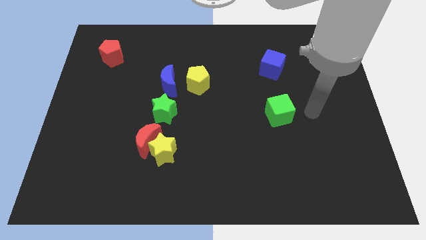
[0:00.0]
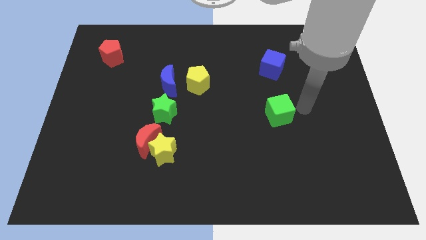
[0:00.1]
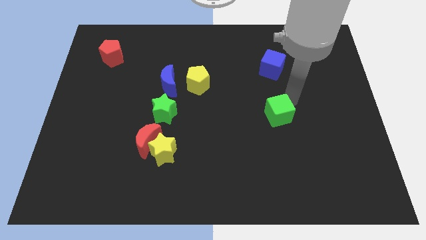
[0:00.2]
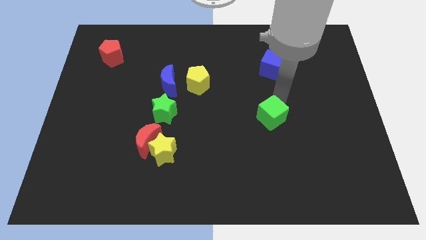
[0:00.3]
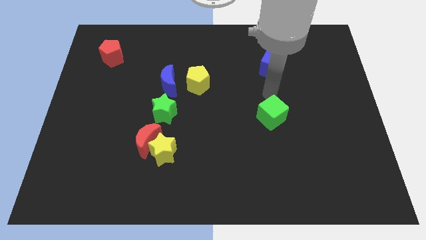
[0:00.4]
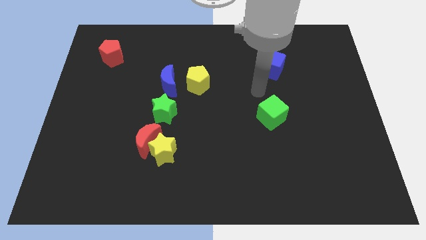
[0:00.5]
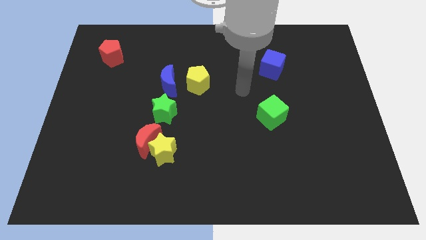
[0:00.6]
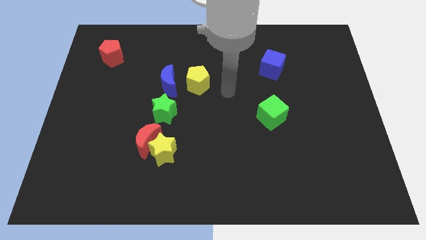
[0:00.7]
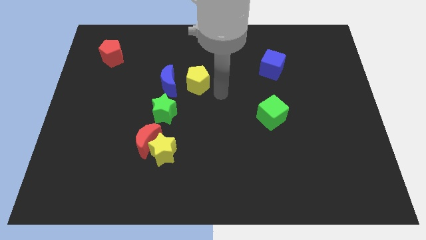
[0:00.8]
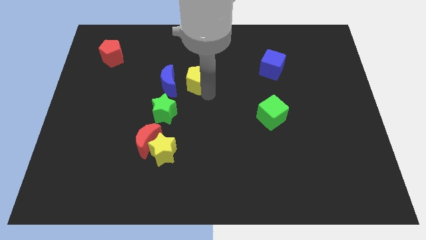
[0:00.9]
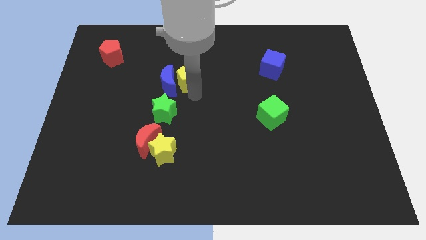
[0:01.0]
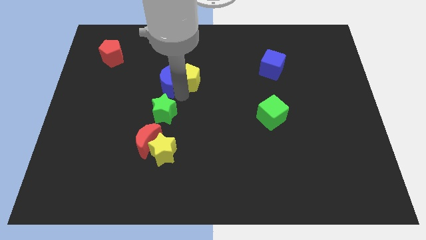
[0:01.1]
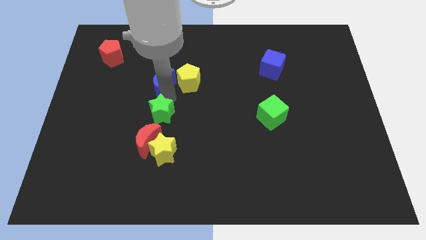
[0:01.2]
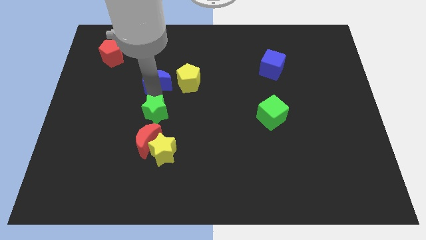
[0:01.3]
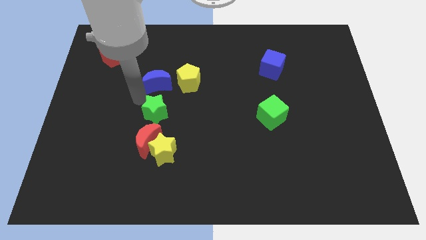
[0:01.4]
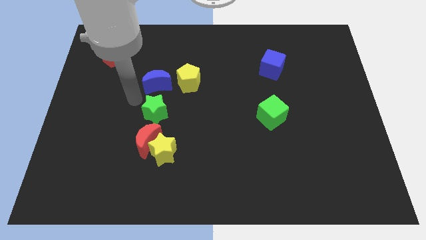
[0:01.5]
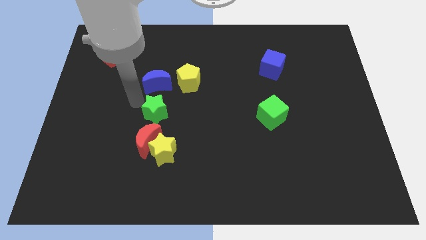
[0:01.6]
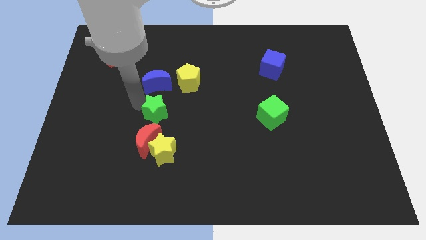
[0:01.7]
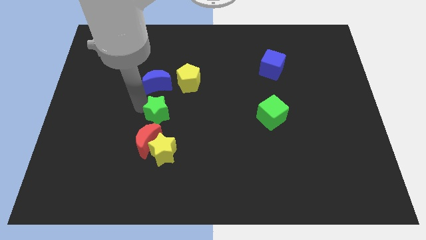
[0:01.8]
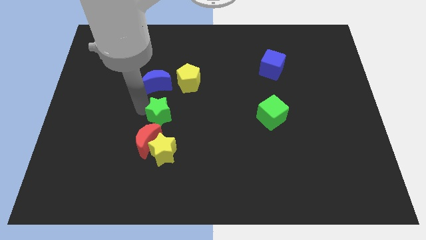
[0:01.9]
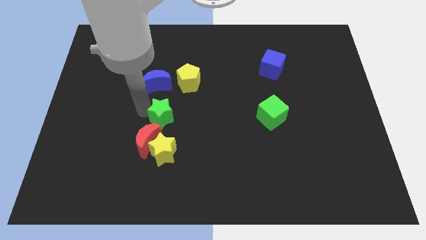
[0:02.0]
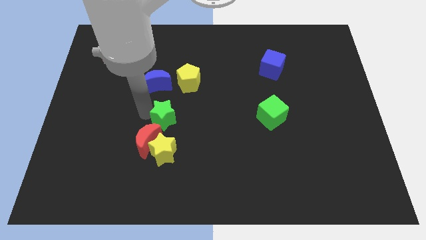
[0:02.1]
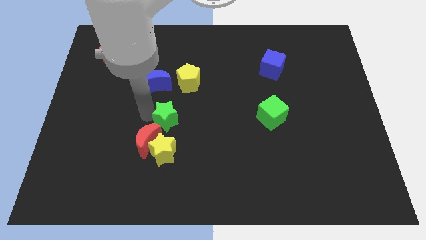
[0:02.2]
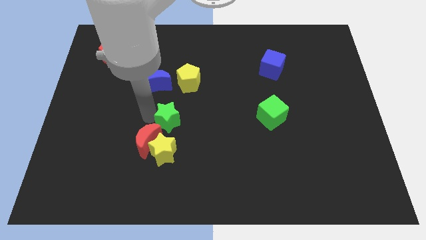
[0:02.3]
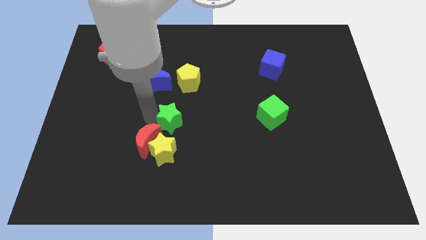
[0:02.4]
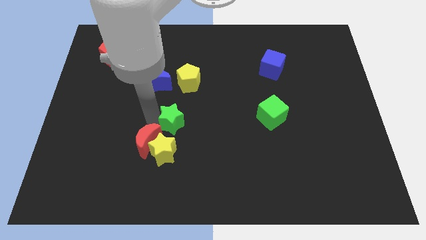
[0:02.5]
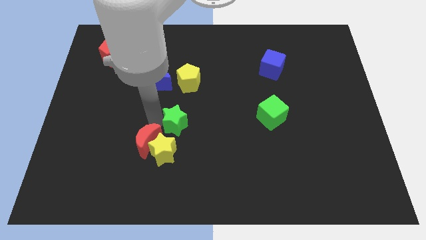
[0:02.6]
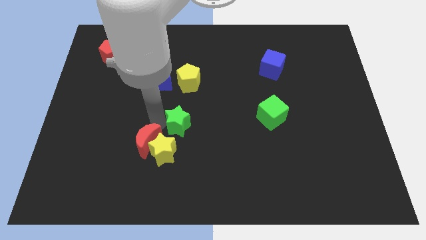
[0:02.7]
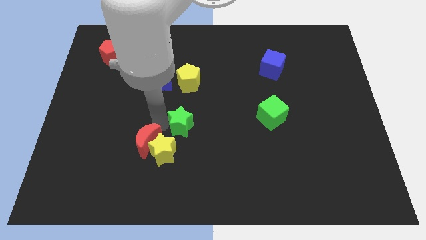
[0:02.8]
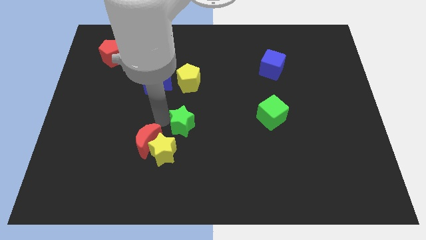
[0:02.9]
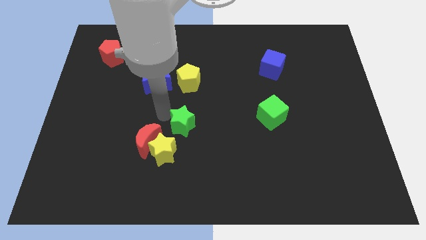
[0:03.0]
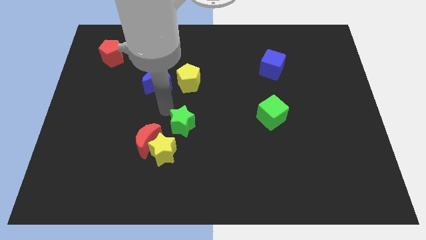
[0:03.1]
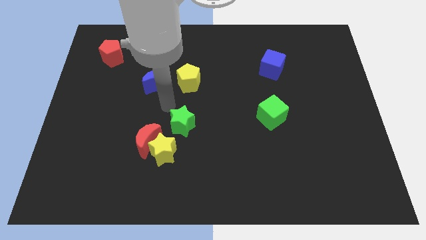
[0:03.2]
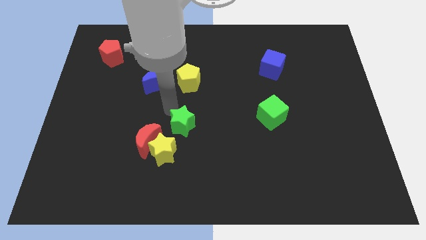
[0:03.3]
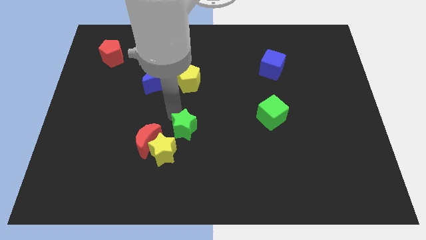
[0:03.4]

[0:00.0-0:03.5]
push the green star diagonally down and to the right slightly

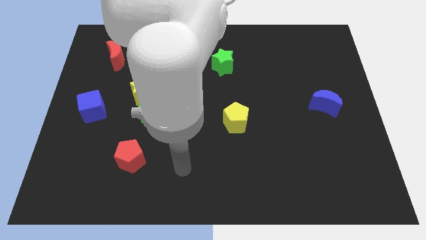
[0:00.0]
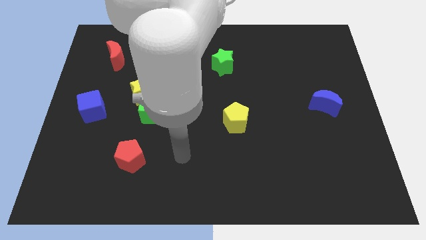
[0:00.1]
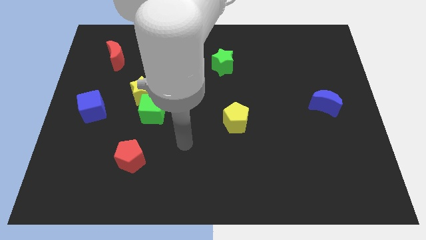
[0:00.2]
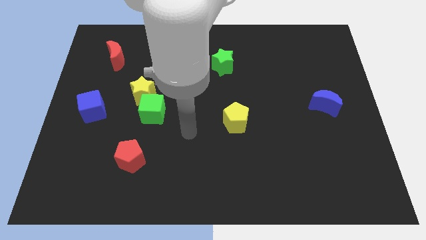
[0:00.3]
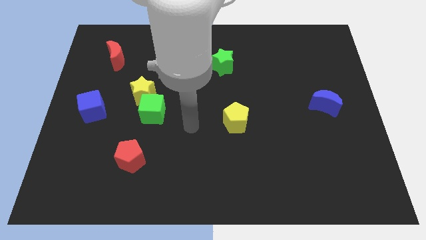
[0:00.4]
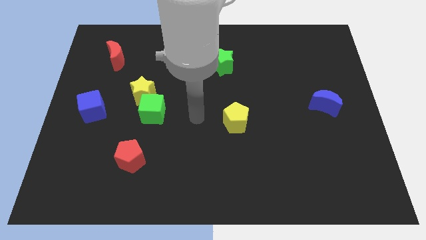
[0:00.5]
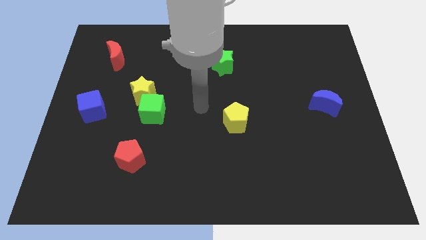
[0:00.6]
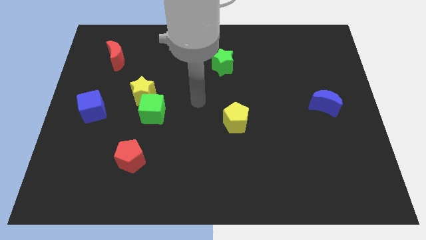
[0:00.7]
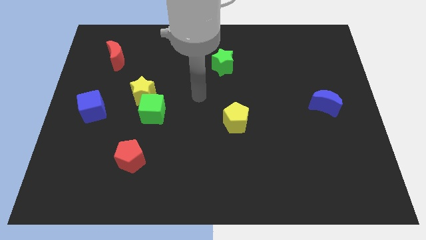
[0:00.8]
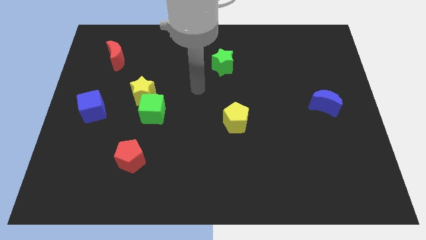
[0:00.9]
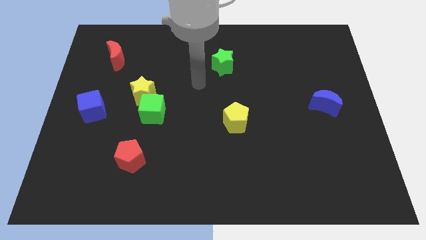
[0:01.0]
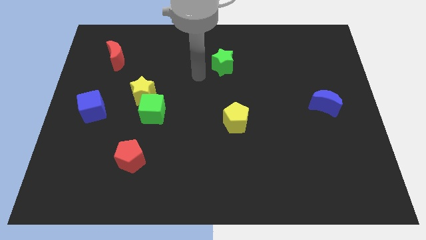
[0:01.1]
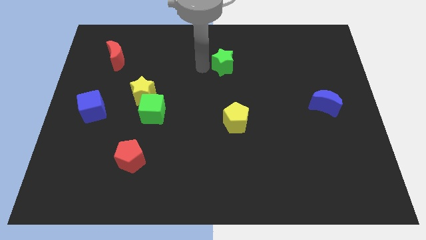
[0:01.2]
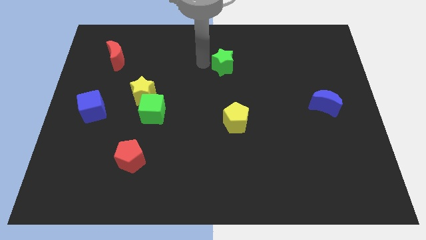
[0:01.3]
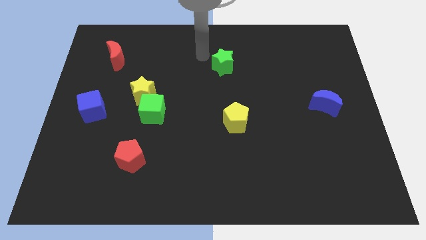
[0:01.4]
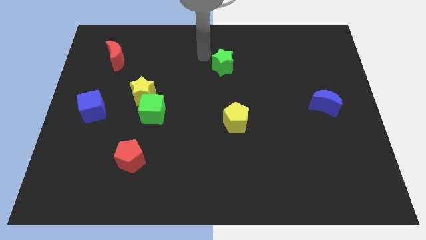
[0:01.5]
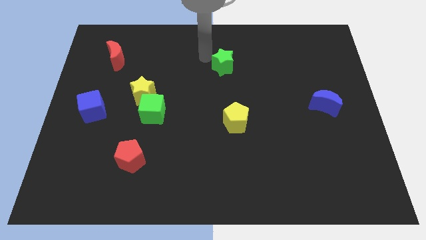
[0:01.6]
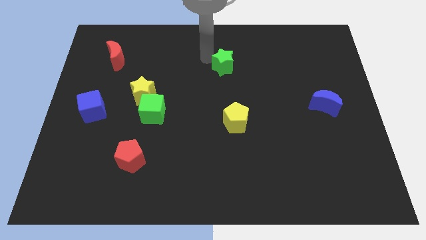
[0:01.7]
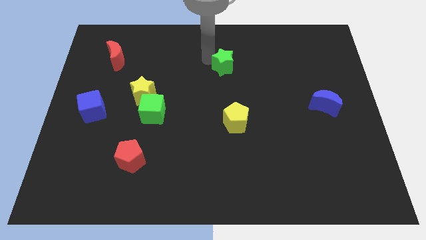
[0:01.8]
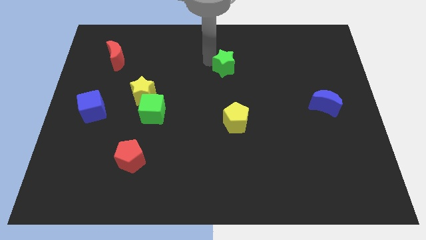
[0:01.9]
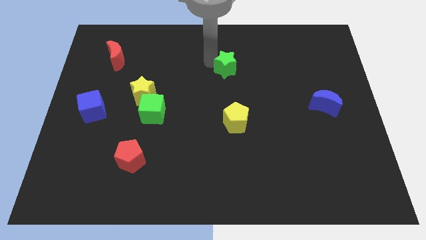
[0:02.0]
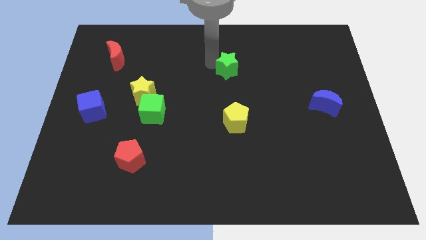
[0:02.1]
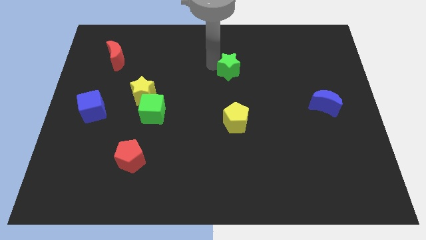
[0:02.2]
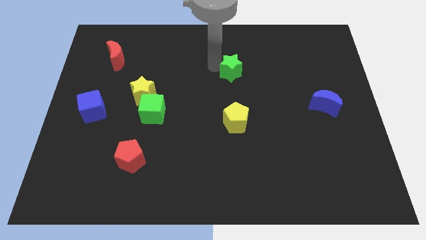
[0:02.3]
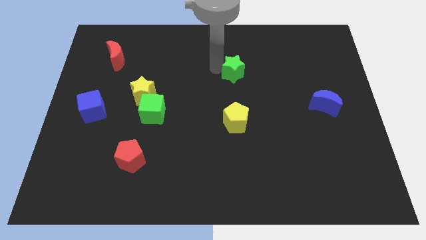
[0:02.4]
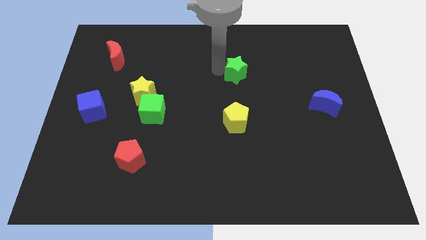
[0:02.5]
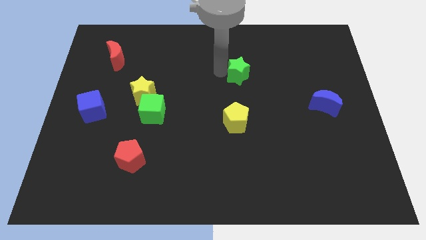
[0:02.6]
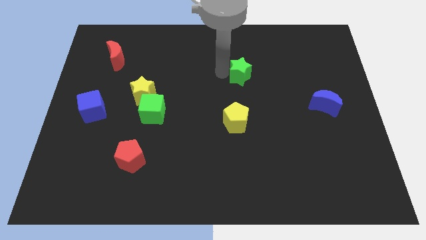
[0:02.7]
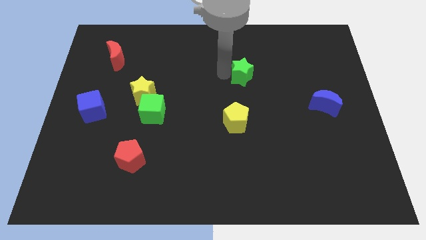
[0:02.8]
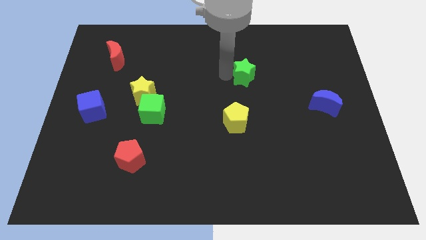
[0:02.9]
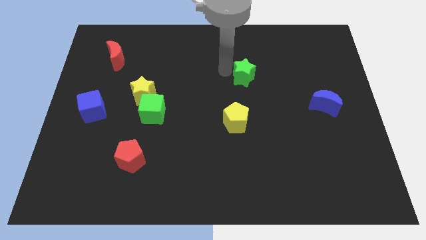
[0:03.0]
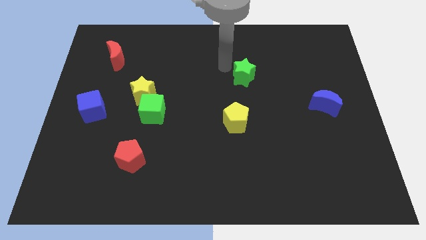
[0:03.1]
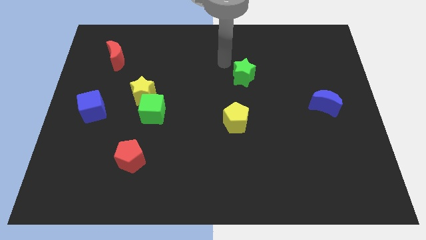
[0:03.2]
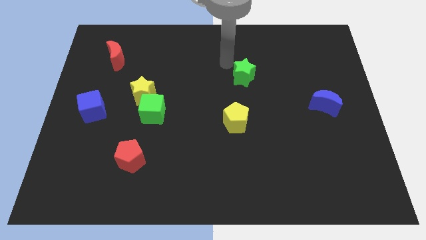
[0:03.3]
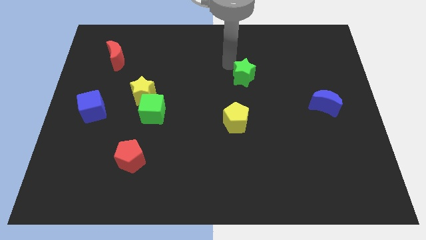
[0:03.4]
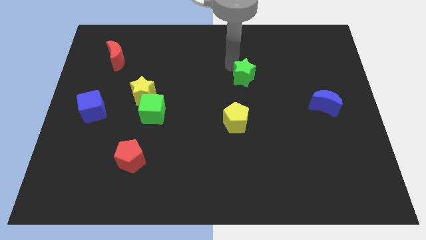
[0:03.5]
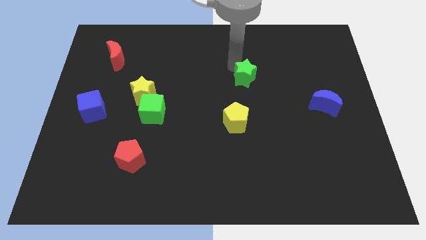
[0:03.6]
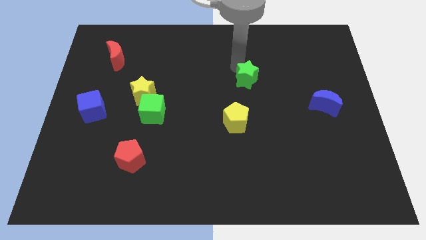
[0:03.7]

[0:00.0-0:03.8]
move the green star a little diagonally downwards and to the right

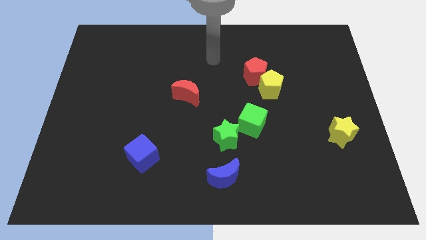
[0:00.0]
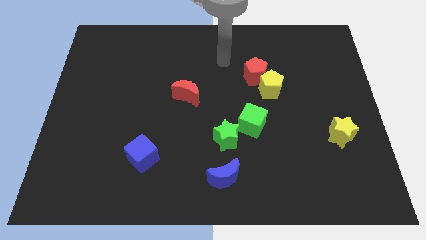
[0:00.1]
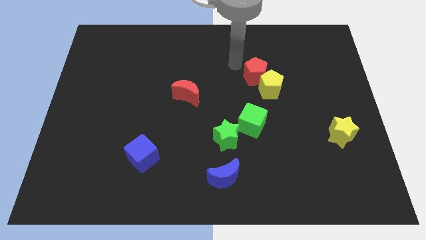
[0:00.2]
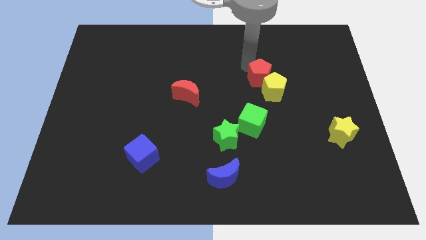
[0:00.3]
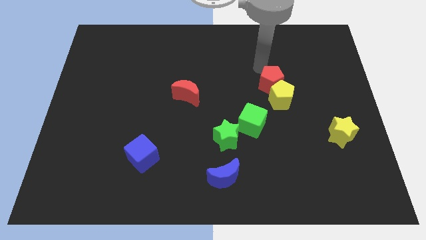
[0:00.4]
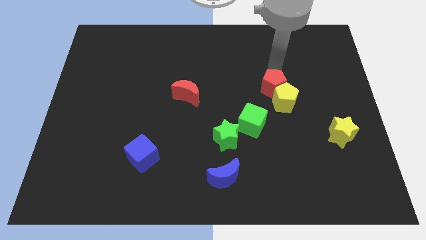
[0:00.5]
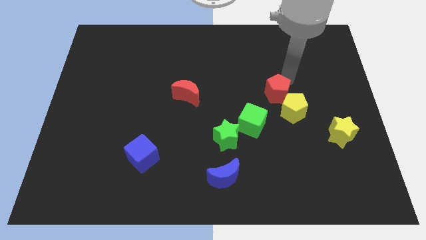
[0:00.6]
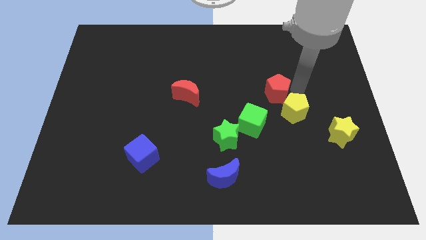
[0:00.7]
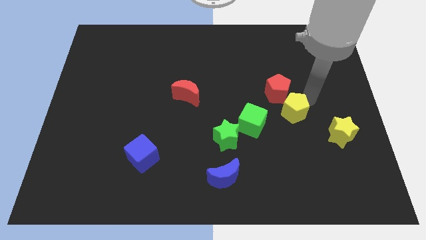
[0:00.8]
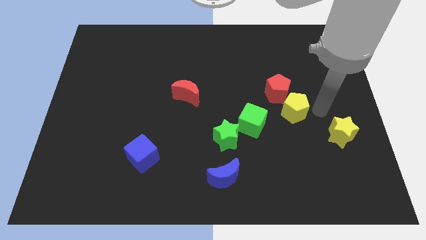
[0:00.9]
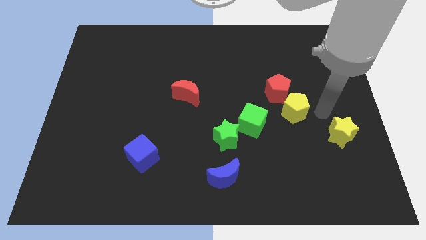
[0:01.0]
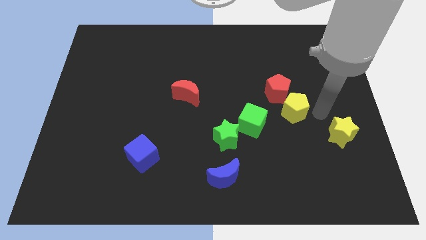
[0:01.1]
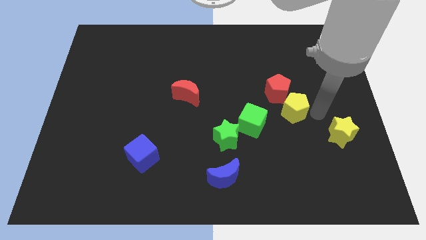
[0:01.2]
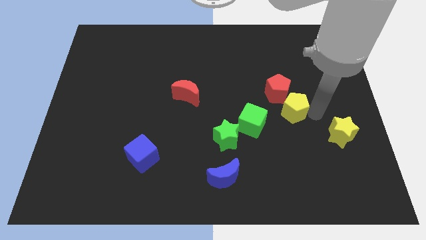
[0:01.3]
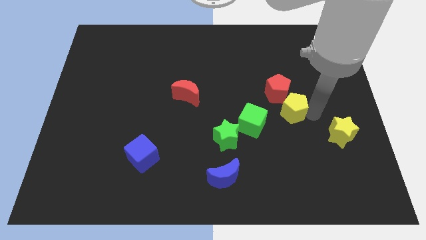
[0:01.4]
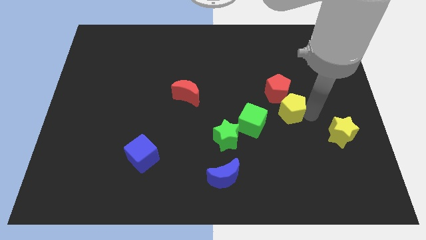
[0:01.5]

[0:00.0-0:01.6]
slightly move the yellow pentagon downwards
